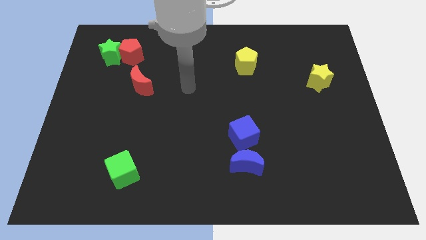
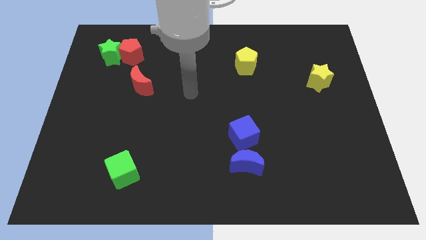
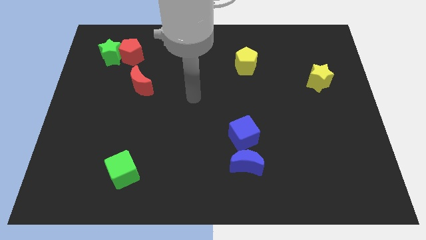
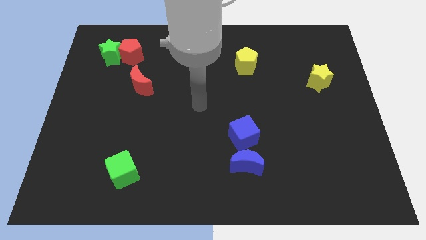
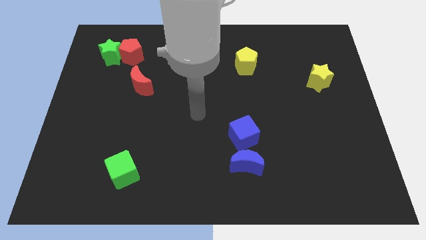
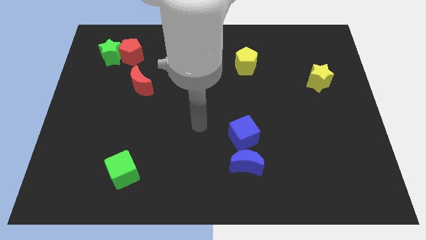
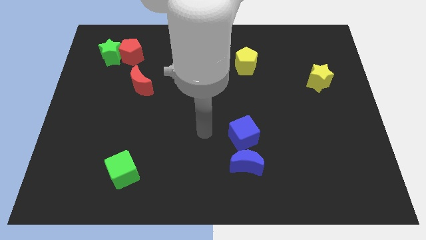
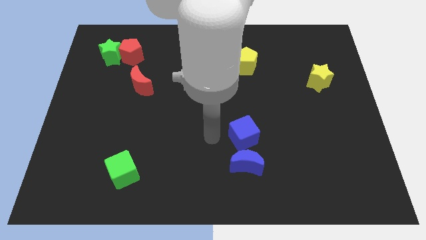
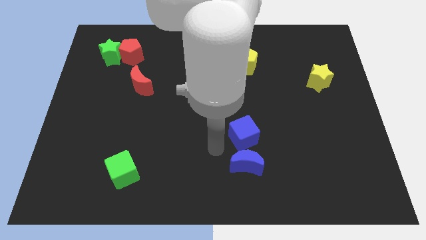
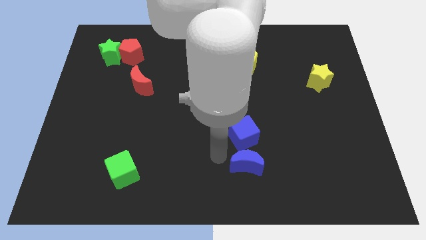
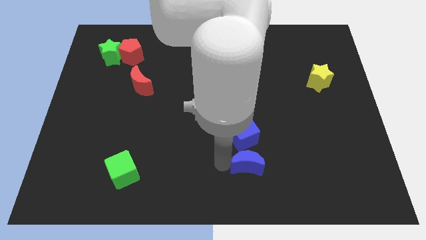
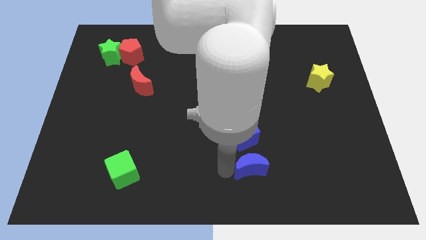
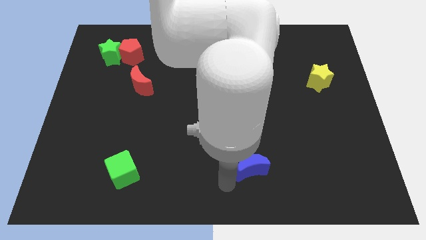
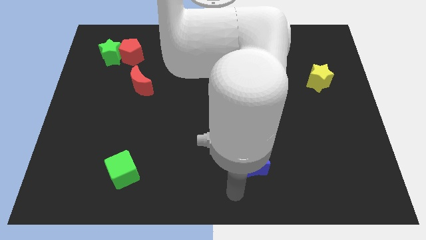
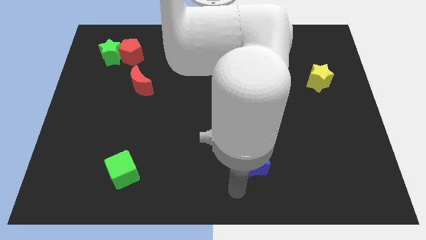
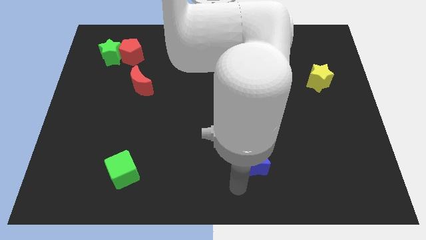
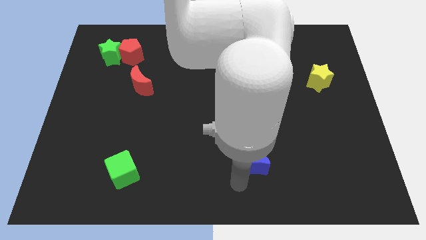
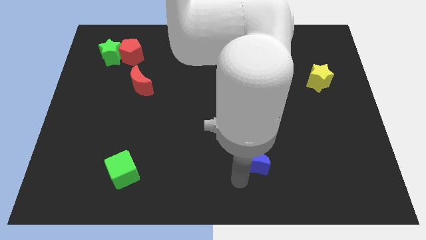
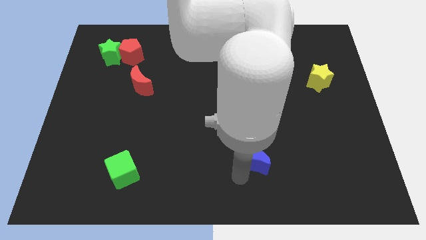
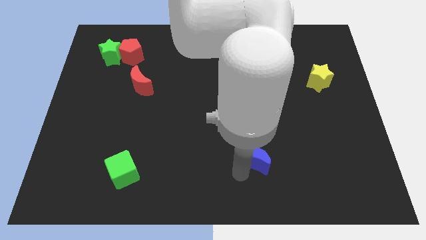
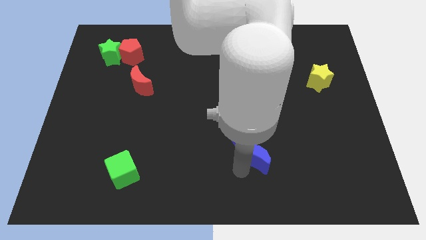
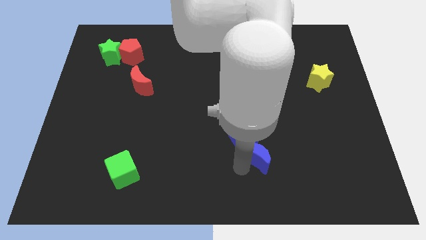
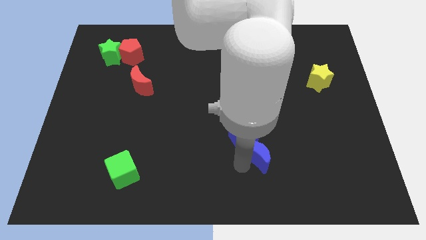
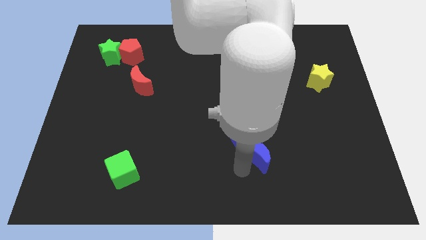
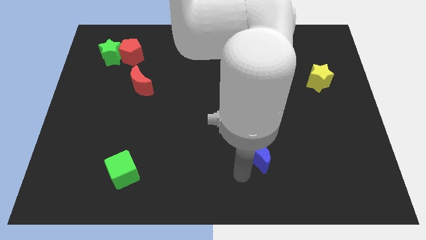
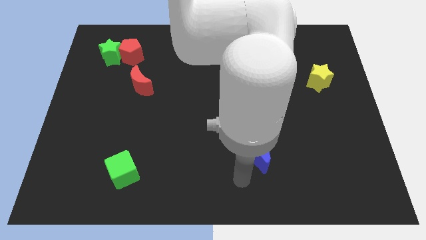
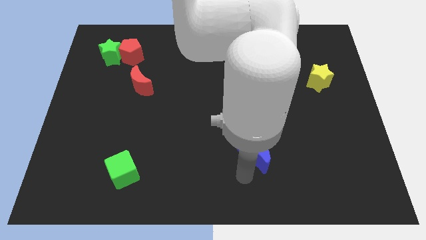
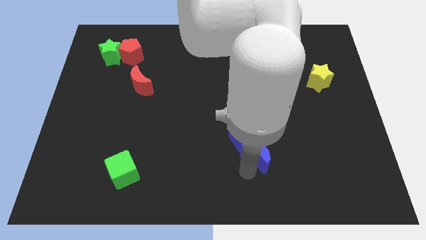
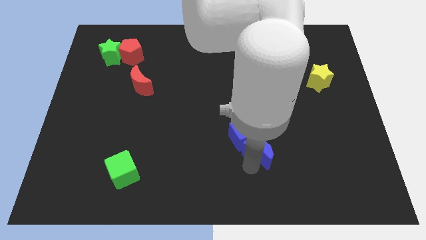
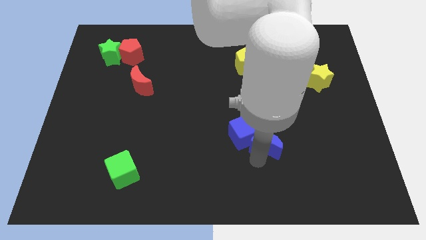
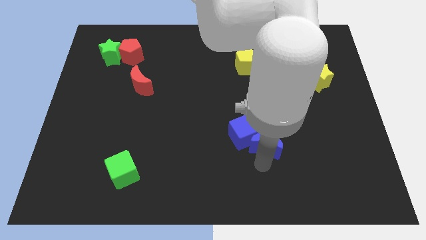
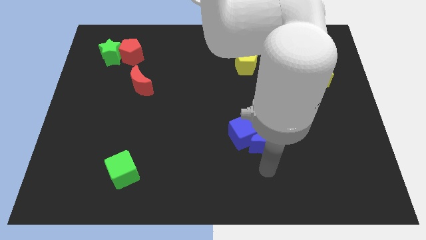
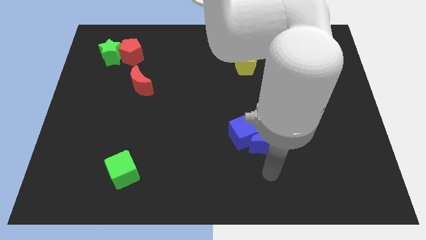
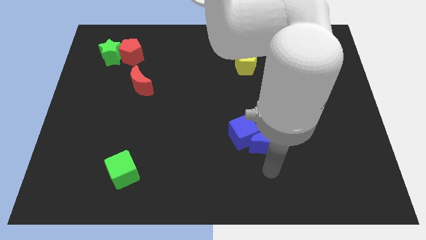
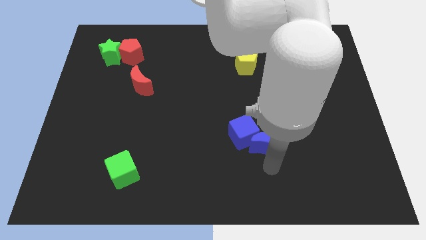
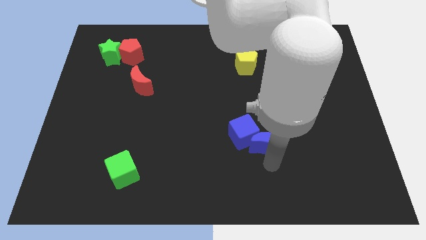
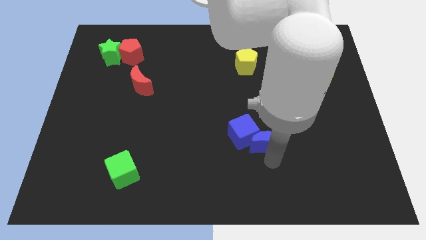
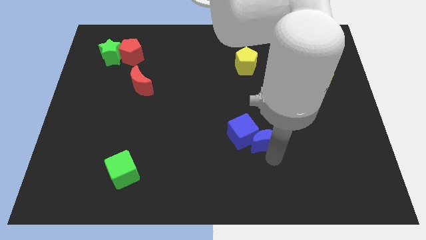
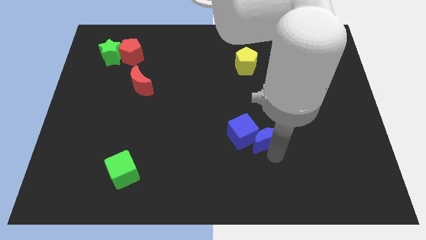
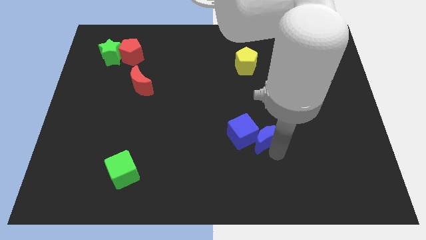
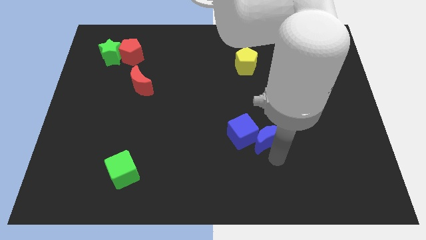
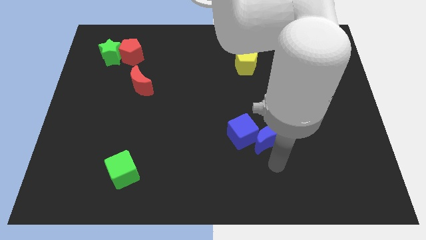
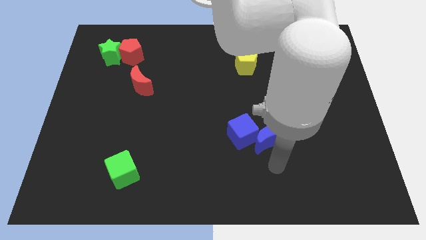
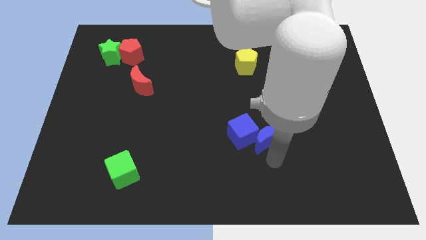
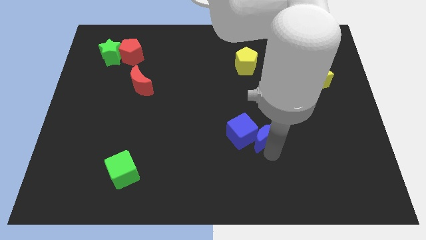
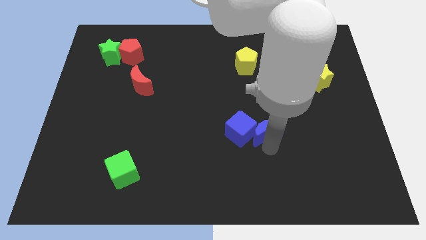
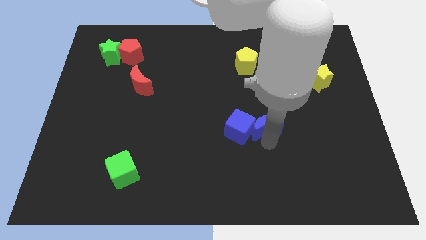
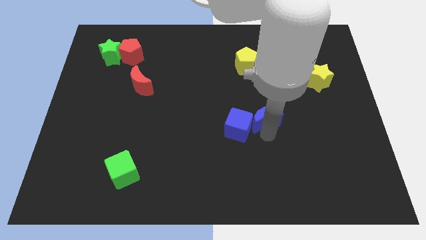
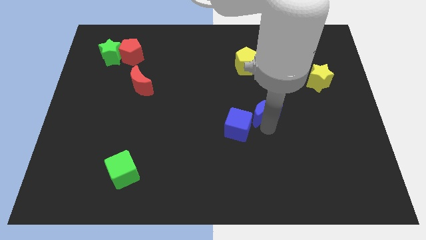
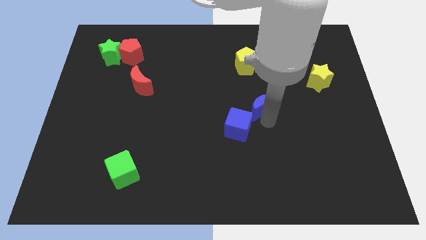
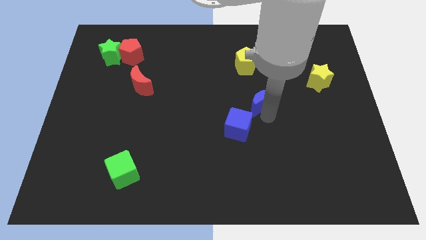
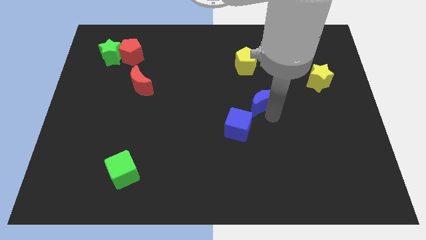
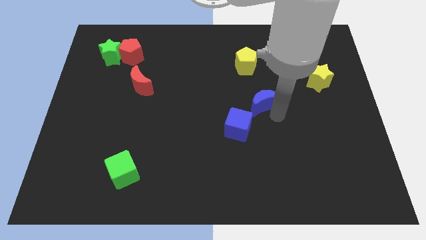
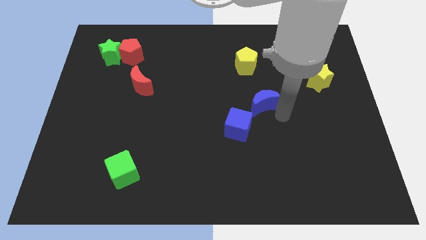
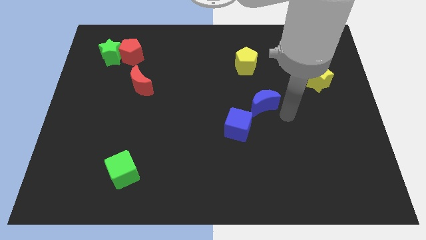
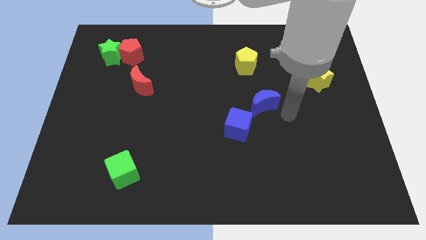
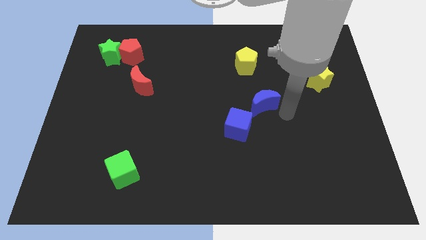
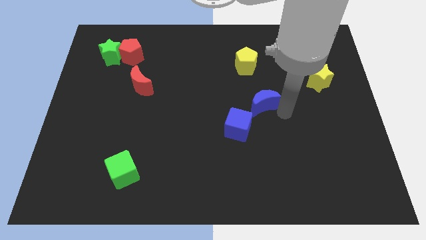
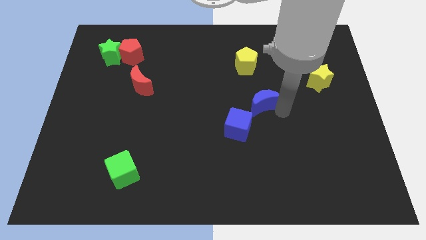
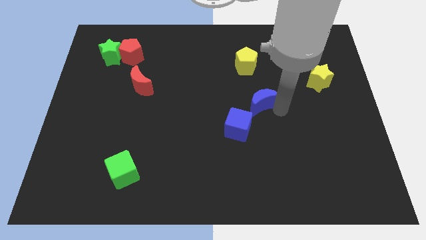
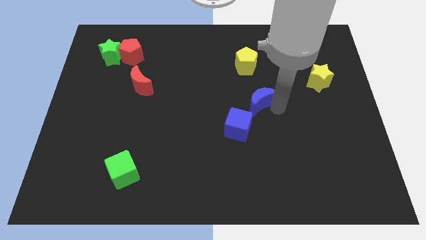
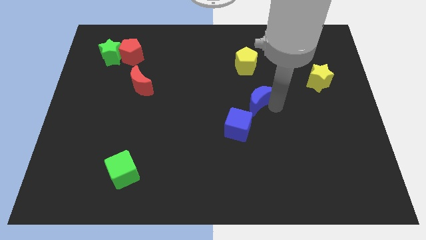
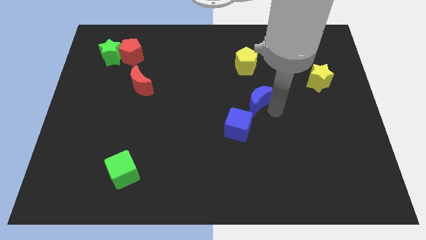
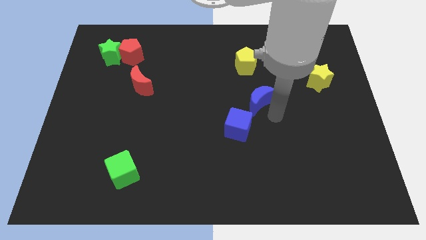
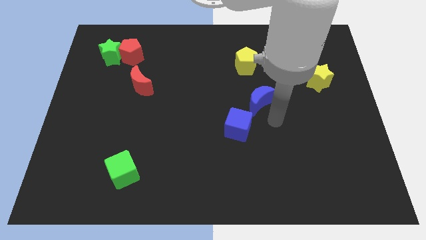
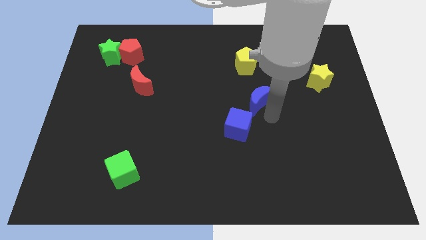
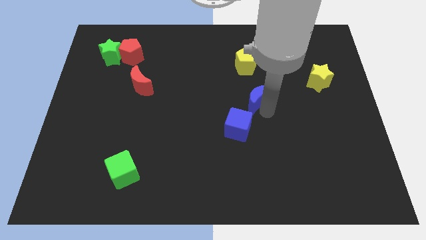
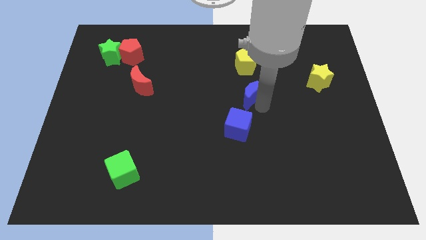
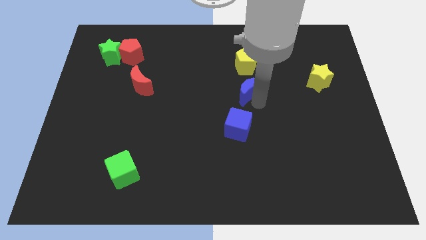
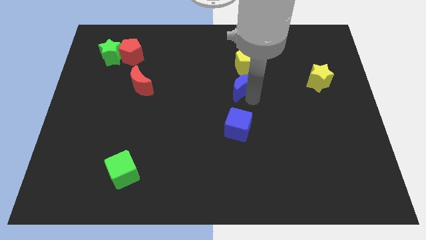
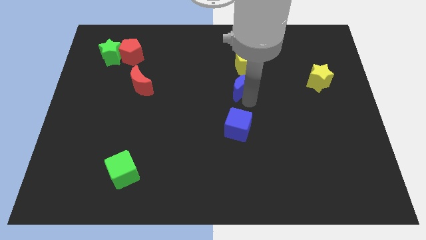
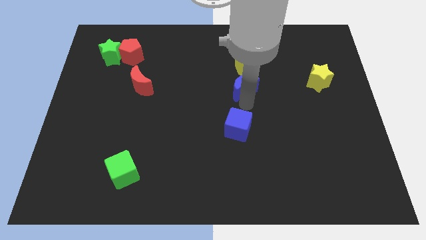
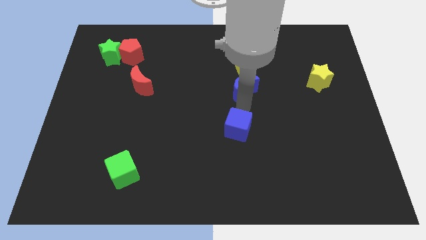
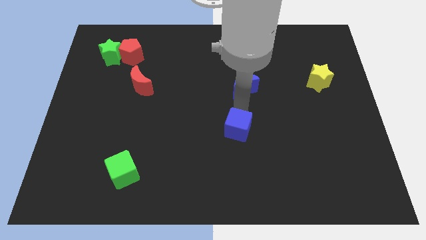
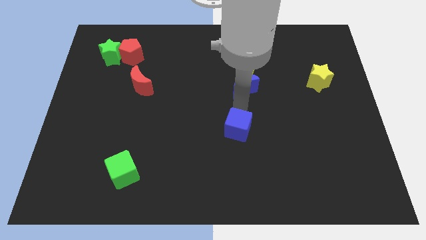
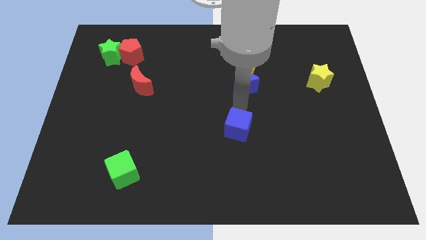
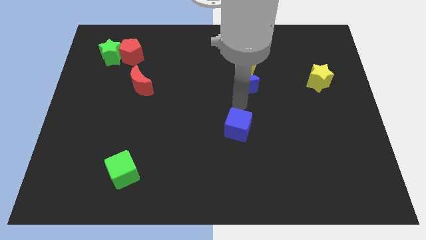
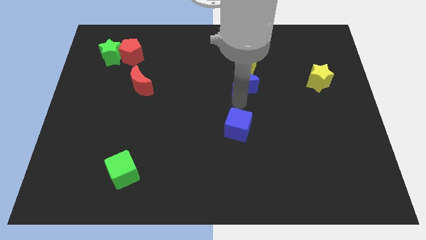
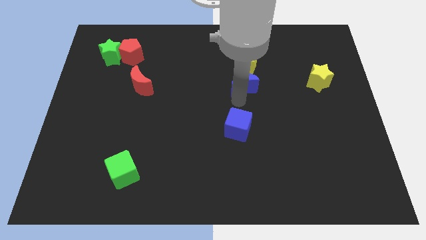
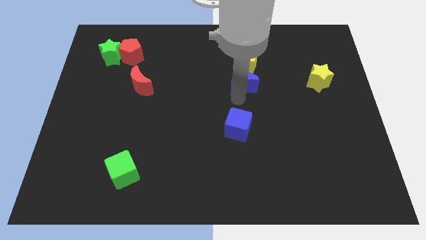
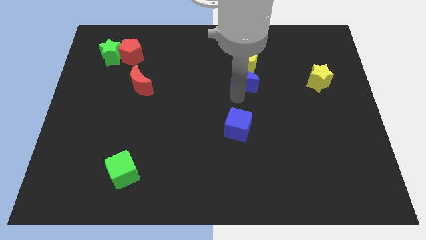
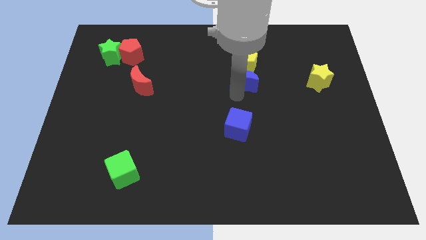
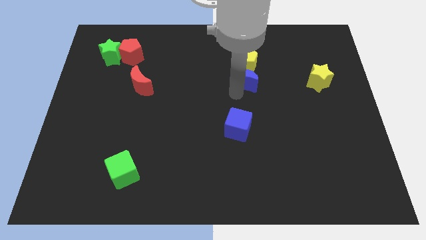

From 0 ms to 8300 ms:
slide the blue moon close to the yellow pentagon
